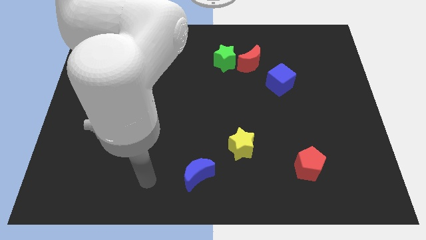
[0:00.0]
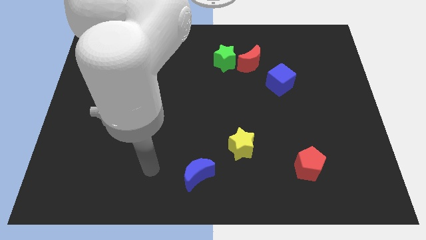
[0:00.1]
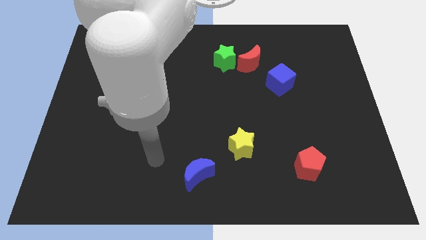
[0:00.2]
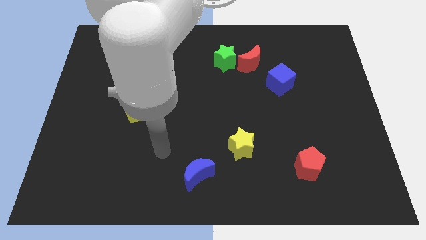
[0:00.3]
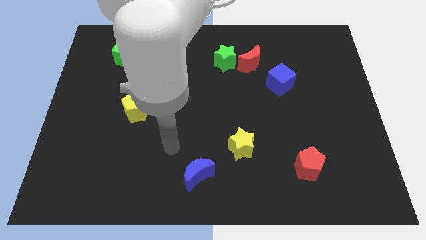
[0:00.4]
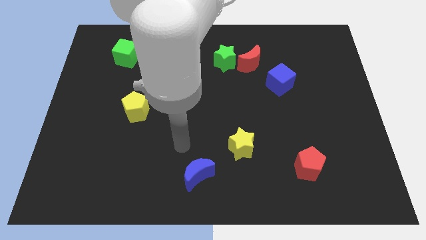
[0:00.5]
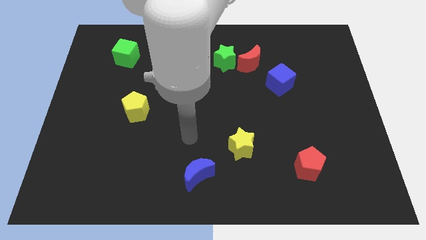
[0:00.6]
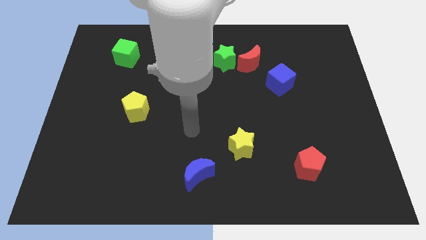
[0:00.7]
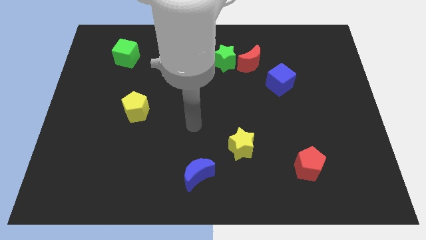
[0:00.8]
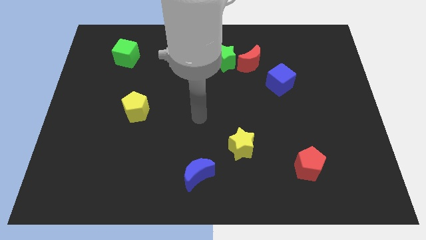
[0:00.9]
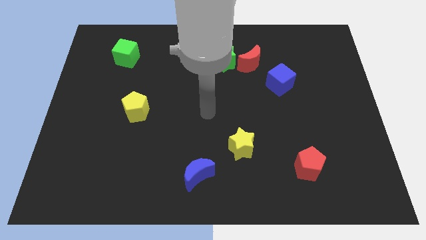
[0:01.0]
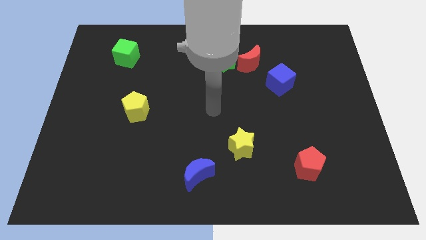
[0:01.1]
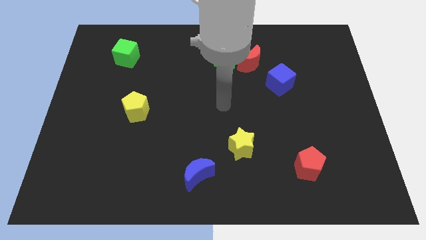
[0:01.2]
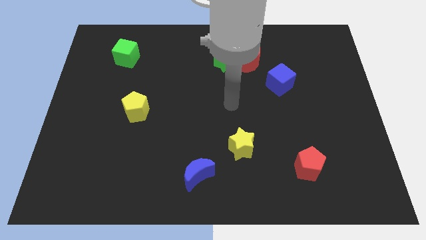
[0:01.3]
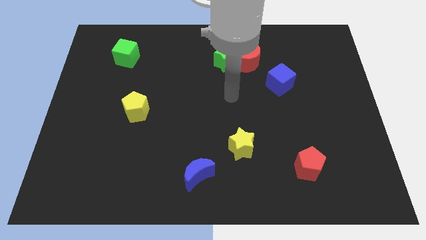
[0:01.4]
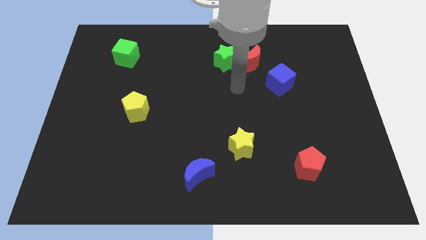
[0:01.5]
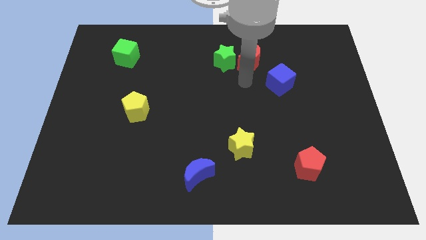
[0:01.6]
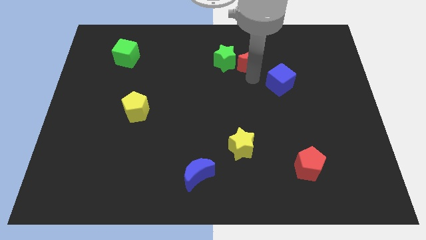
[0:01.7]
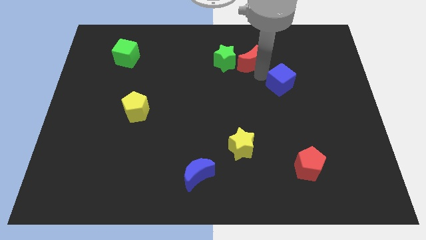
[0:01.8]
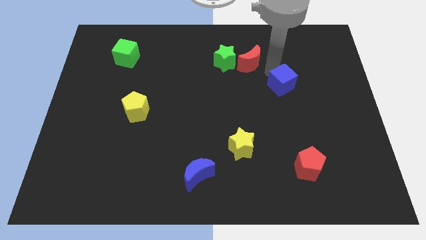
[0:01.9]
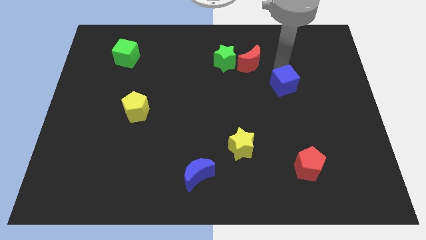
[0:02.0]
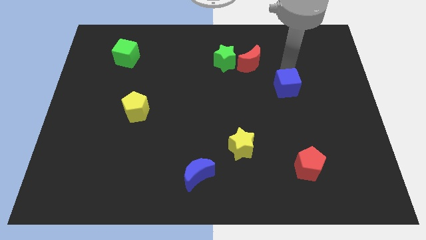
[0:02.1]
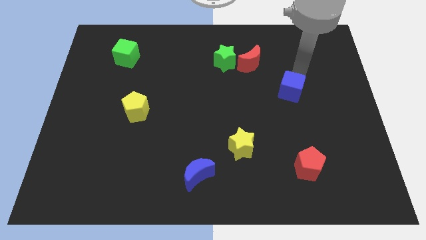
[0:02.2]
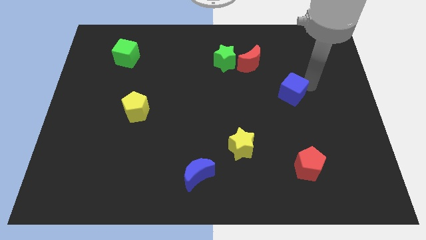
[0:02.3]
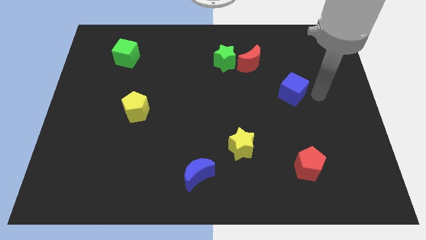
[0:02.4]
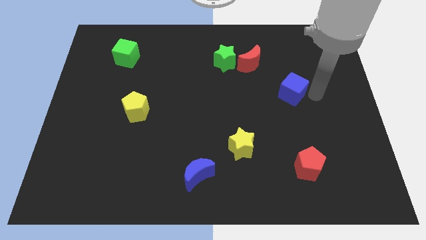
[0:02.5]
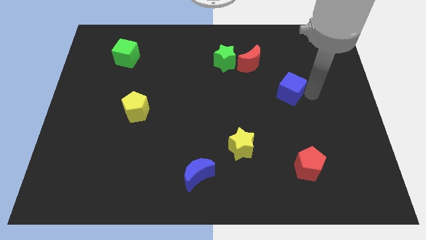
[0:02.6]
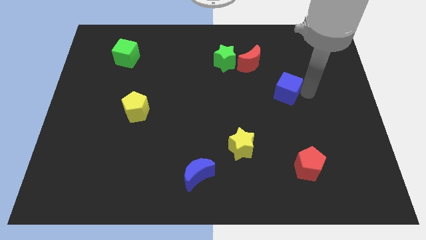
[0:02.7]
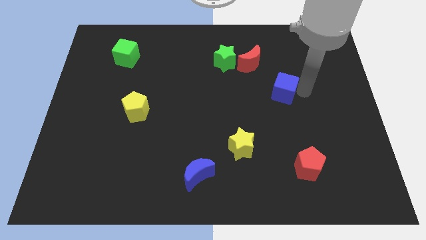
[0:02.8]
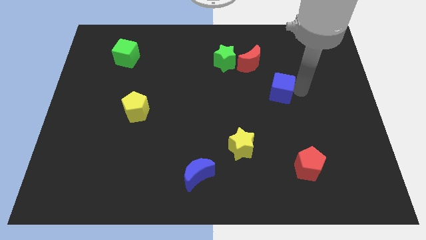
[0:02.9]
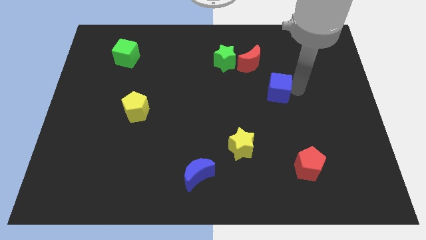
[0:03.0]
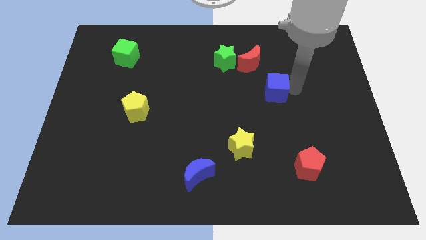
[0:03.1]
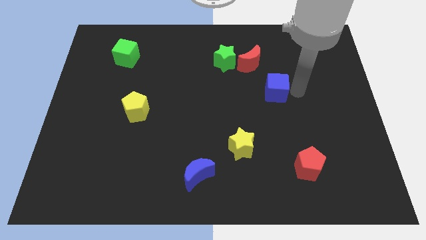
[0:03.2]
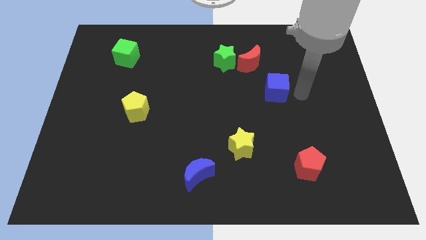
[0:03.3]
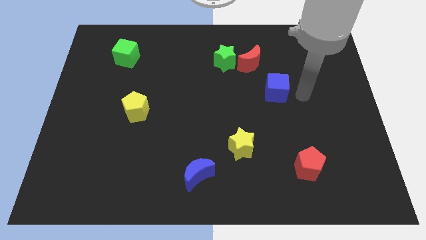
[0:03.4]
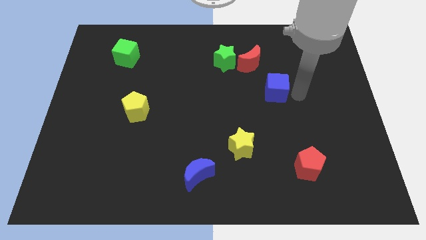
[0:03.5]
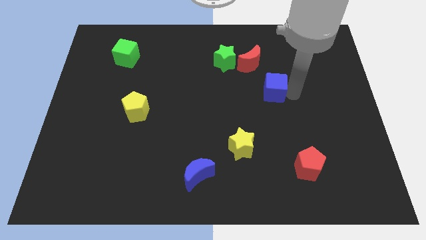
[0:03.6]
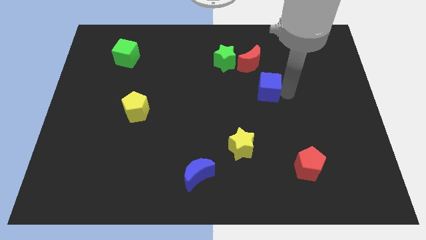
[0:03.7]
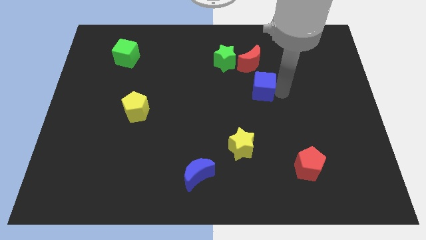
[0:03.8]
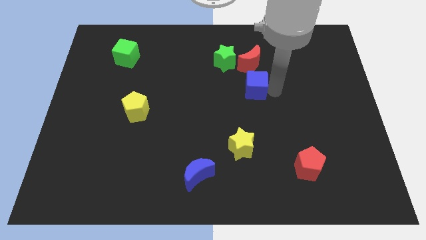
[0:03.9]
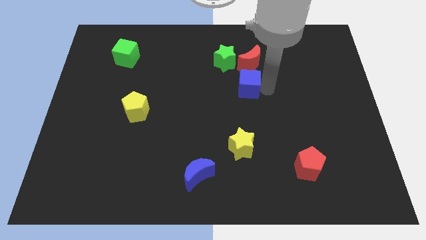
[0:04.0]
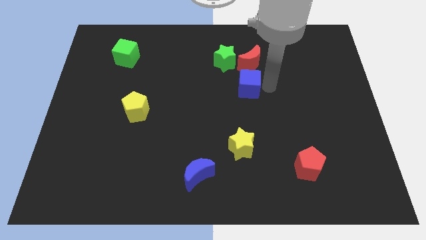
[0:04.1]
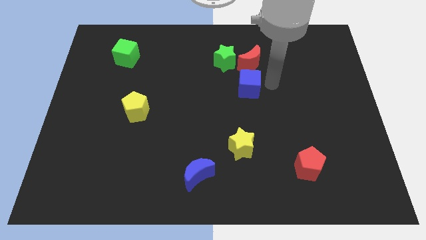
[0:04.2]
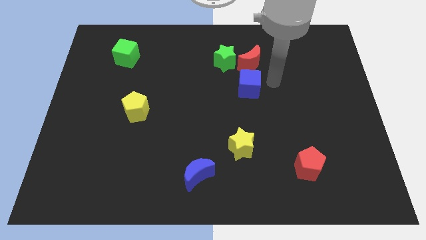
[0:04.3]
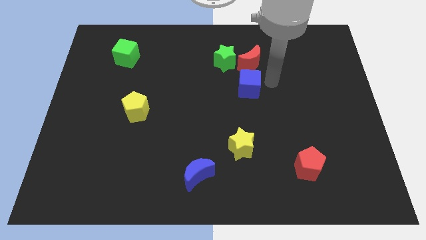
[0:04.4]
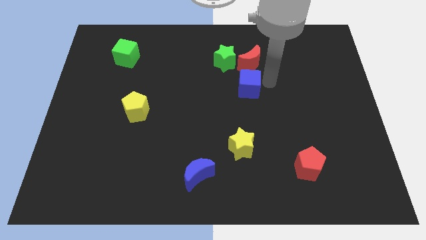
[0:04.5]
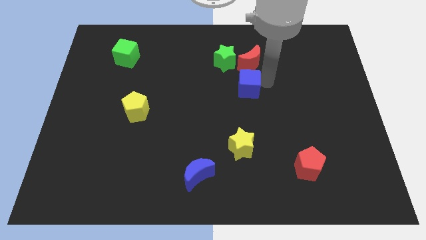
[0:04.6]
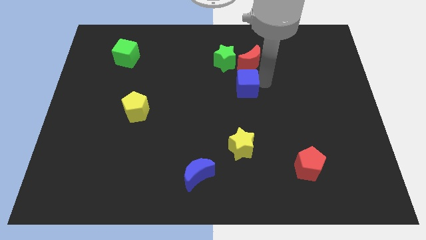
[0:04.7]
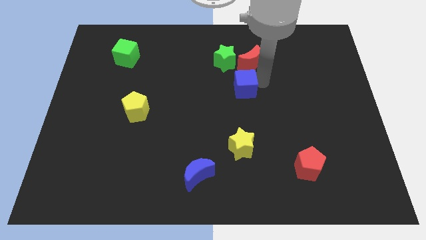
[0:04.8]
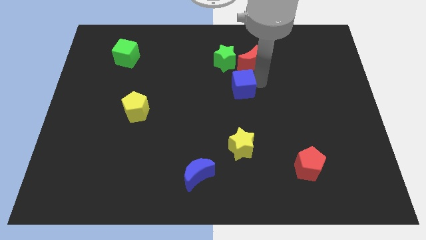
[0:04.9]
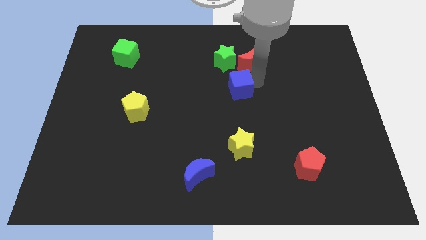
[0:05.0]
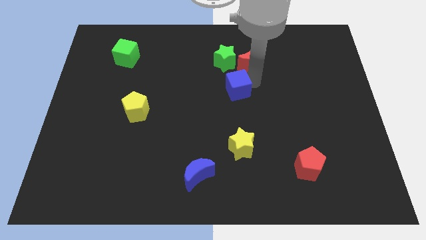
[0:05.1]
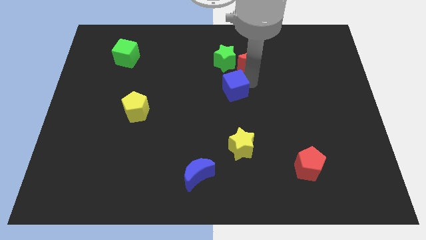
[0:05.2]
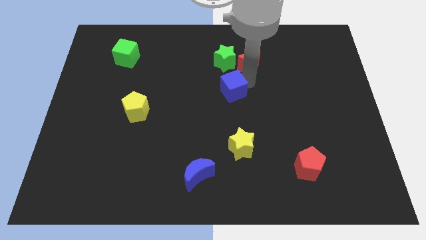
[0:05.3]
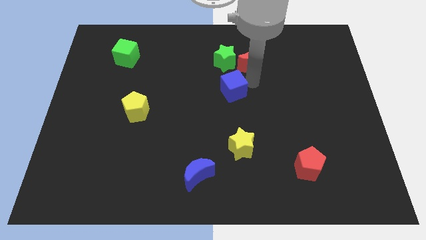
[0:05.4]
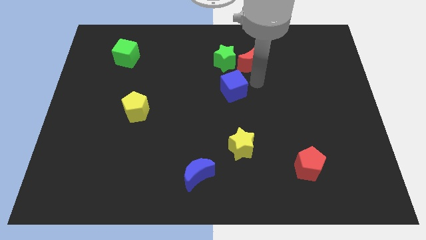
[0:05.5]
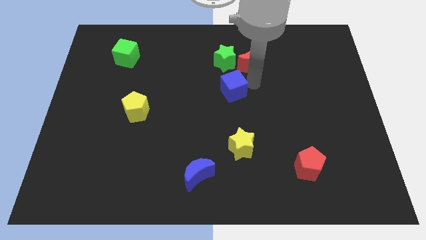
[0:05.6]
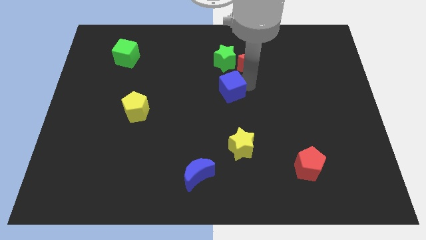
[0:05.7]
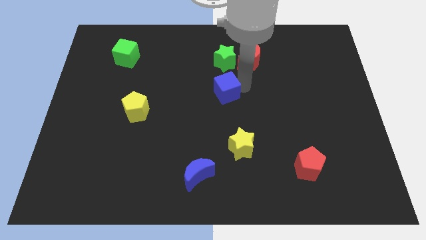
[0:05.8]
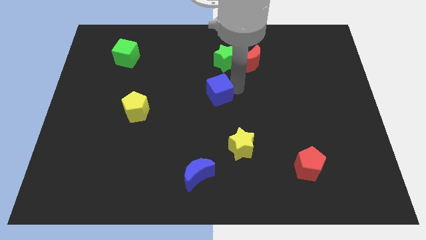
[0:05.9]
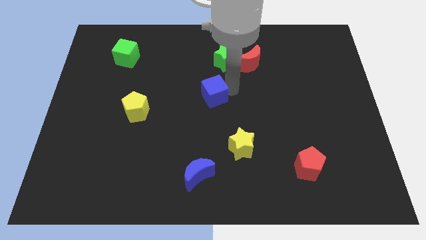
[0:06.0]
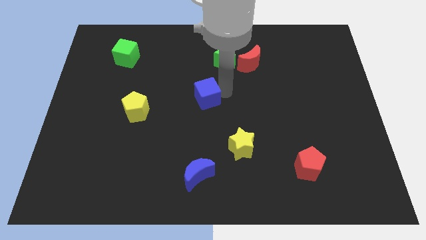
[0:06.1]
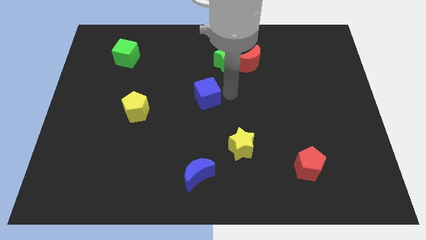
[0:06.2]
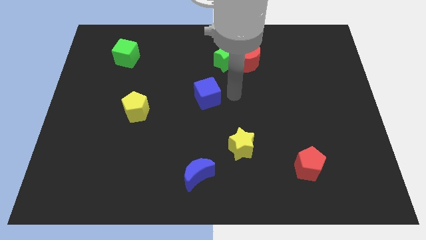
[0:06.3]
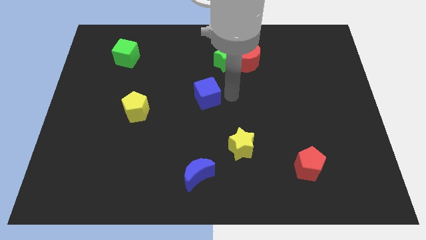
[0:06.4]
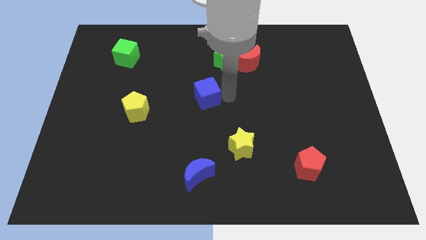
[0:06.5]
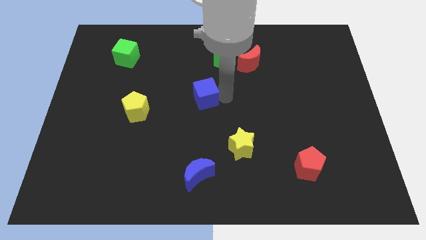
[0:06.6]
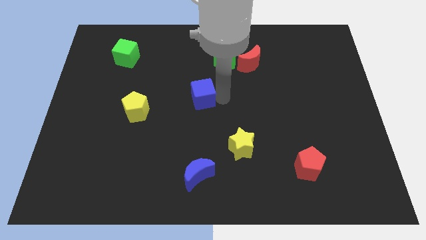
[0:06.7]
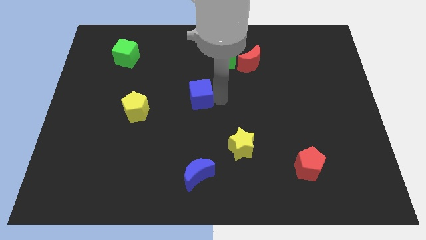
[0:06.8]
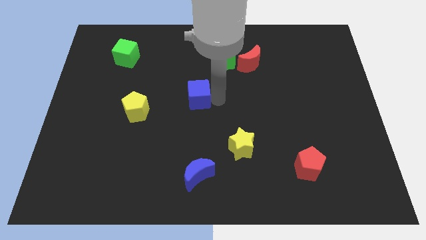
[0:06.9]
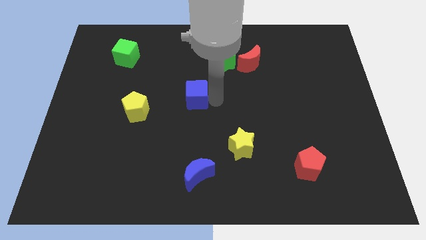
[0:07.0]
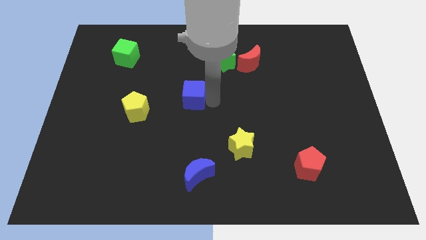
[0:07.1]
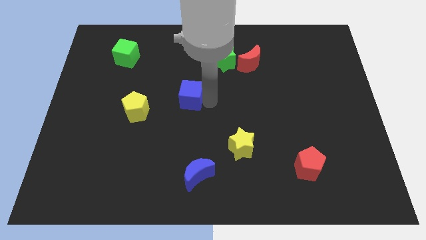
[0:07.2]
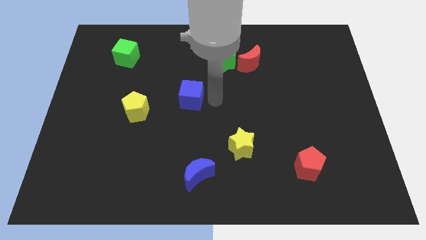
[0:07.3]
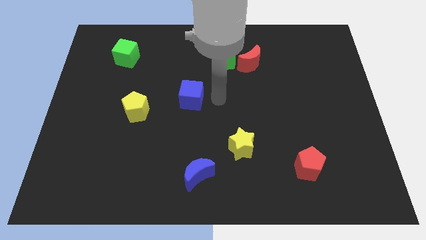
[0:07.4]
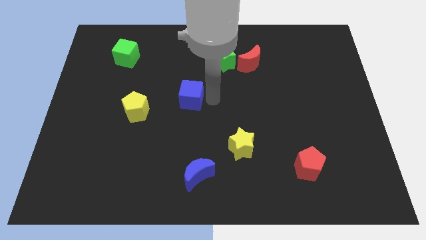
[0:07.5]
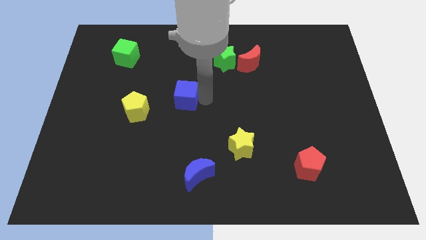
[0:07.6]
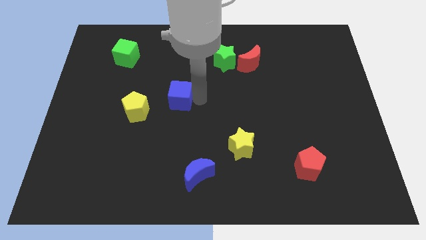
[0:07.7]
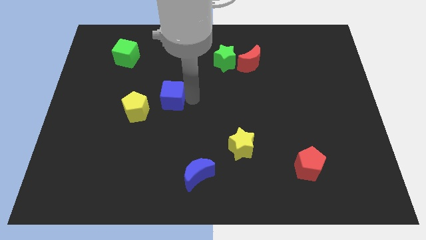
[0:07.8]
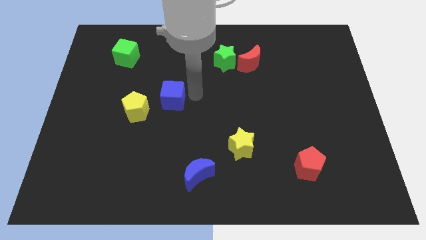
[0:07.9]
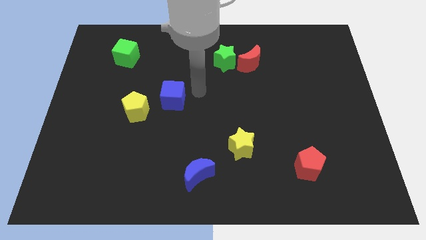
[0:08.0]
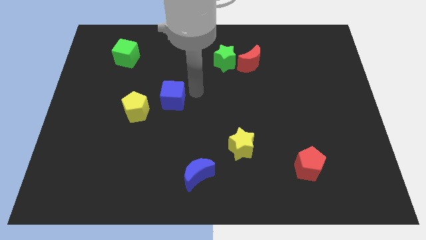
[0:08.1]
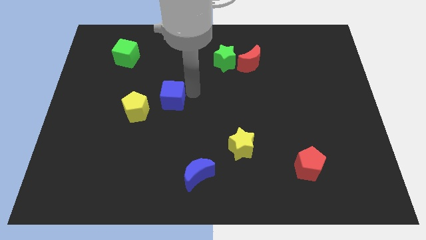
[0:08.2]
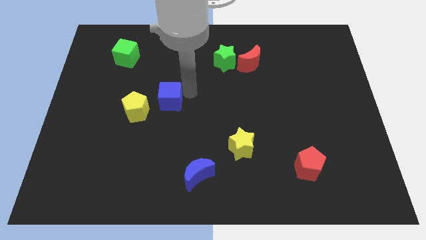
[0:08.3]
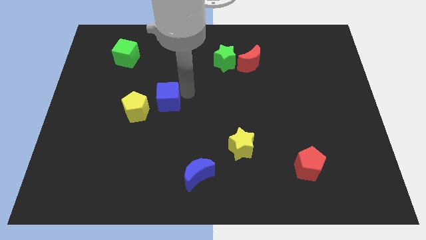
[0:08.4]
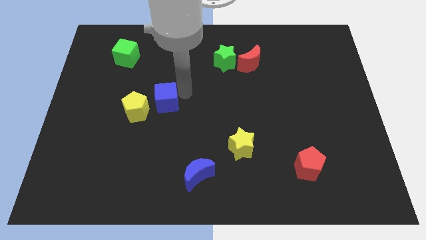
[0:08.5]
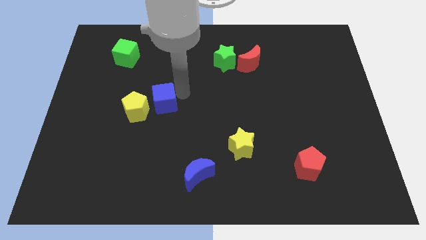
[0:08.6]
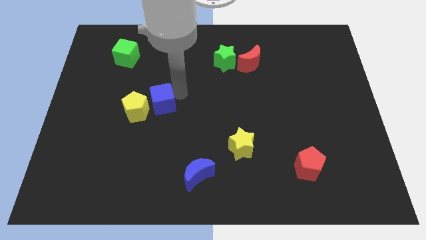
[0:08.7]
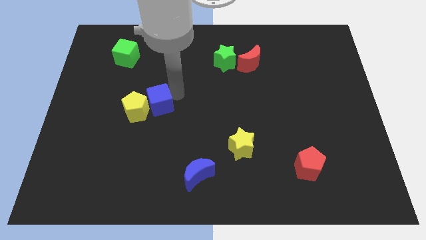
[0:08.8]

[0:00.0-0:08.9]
move the blue cube next to the yellow pentagon
